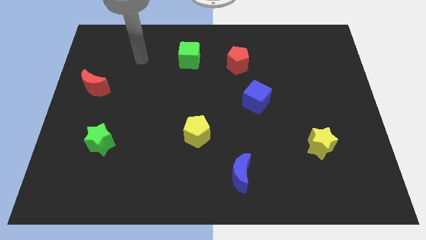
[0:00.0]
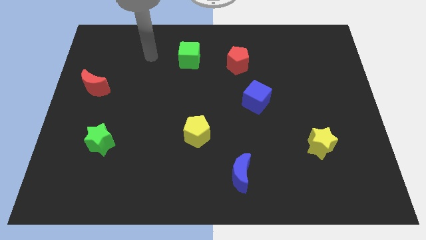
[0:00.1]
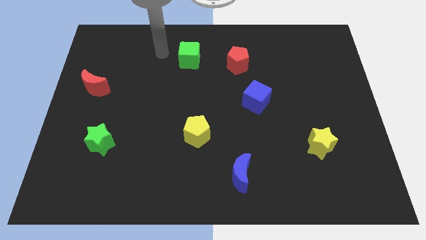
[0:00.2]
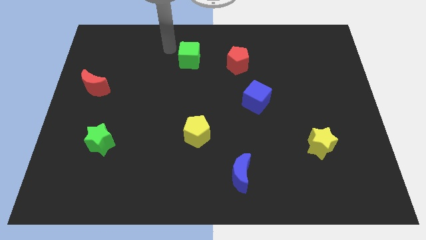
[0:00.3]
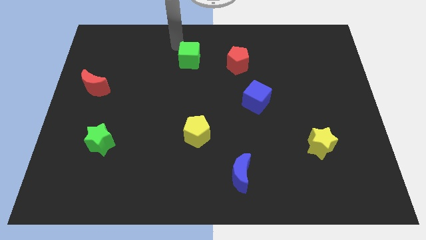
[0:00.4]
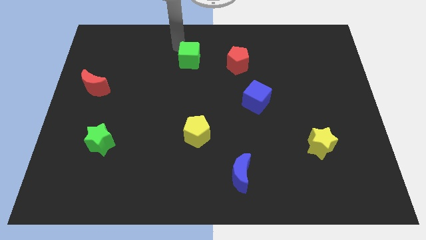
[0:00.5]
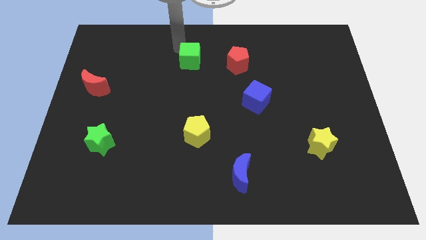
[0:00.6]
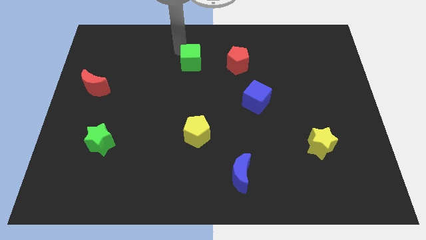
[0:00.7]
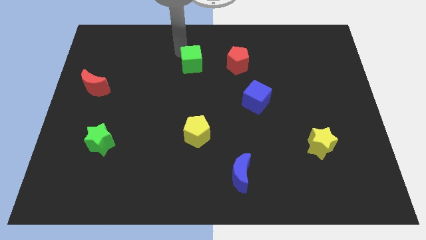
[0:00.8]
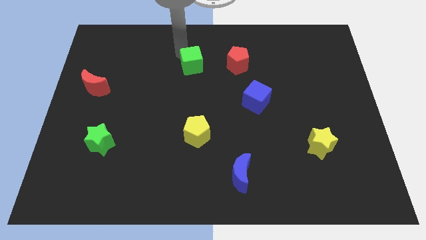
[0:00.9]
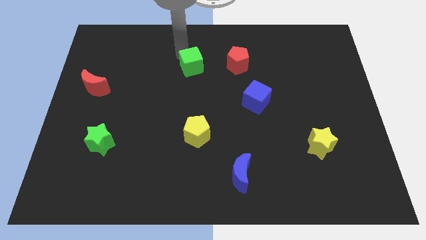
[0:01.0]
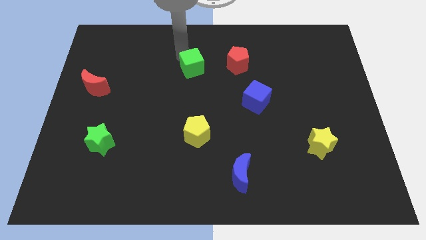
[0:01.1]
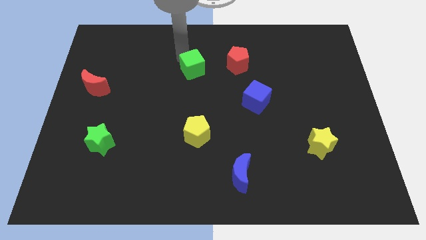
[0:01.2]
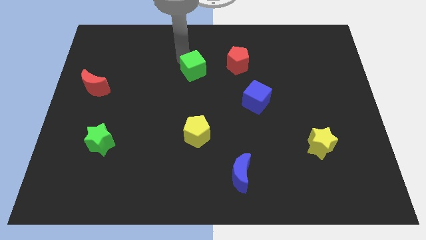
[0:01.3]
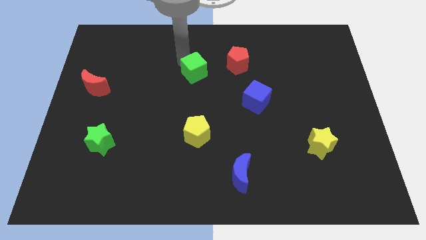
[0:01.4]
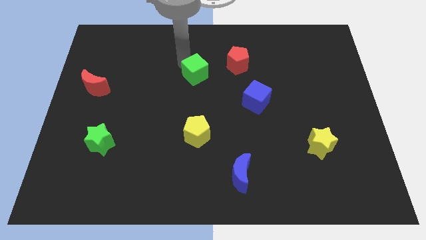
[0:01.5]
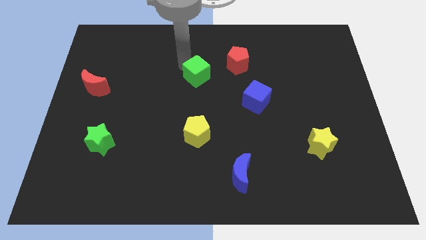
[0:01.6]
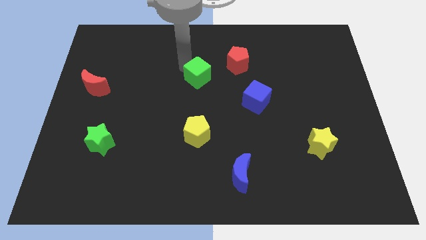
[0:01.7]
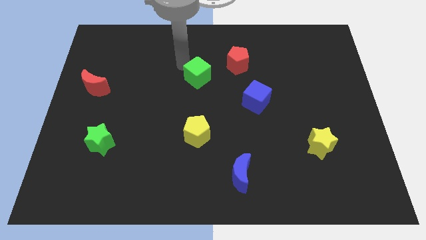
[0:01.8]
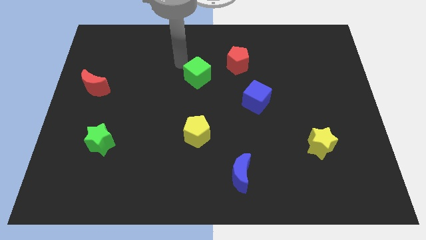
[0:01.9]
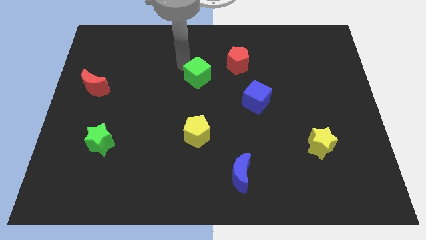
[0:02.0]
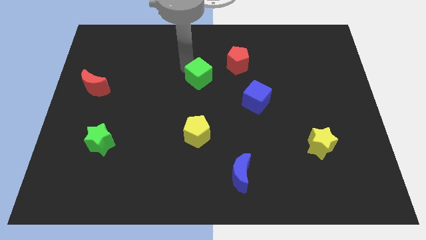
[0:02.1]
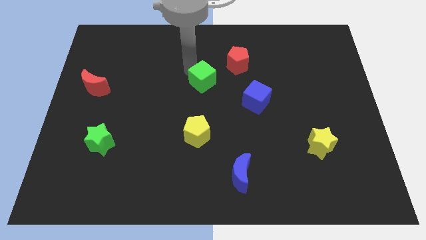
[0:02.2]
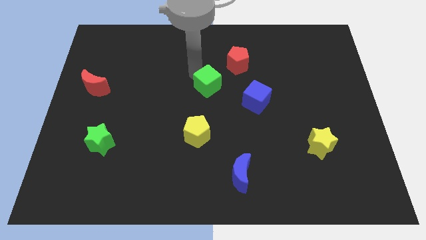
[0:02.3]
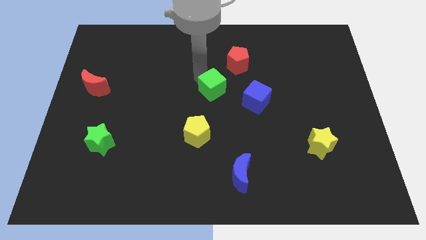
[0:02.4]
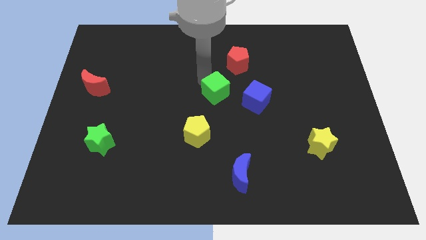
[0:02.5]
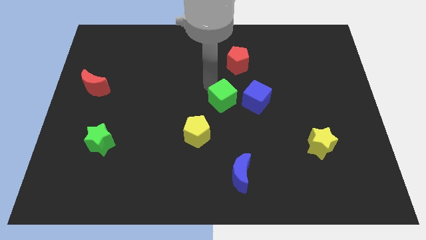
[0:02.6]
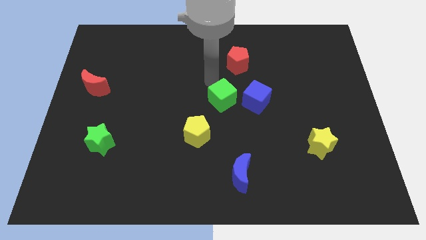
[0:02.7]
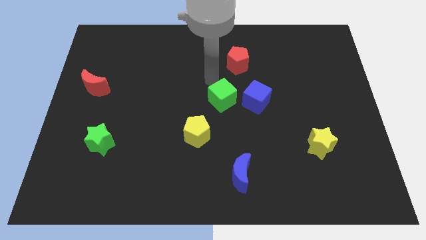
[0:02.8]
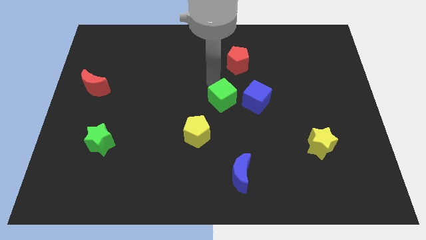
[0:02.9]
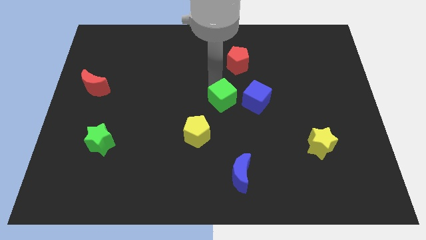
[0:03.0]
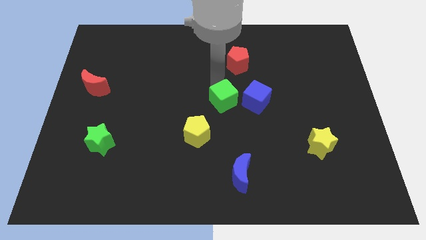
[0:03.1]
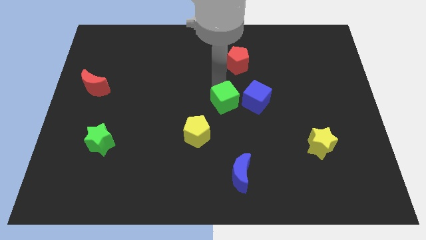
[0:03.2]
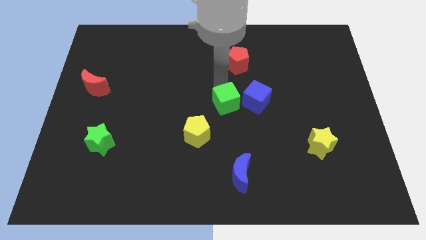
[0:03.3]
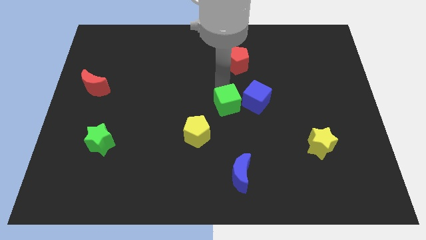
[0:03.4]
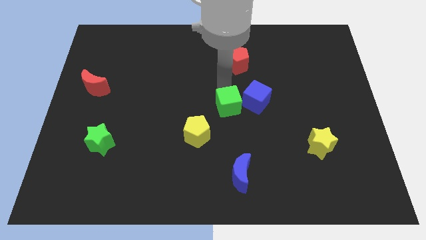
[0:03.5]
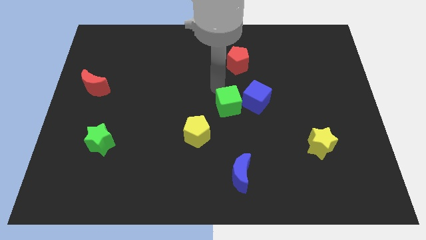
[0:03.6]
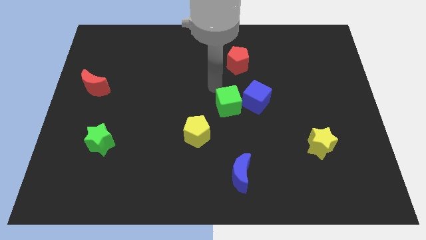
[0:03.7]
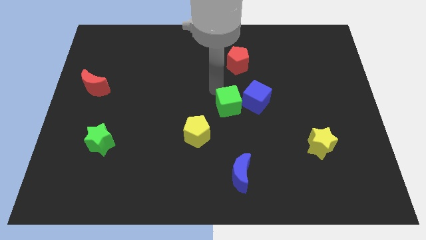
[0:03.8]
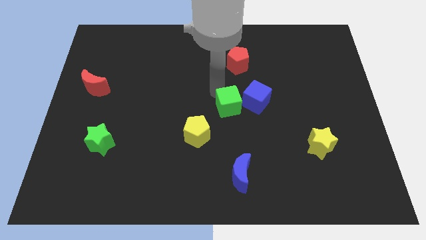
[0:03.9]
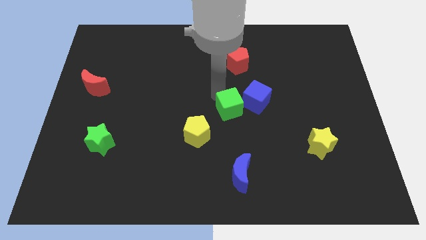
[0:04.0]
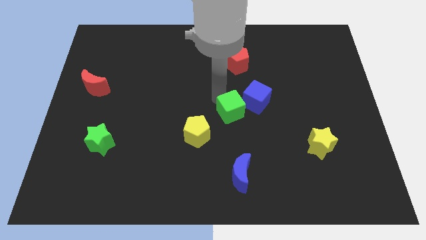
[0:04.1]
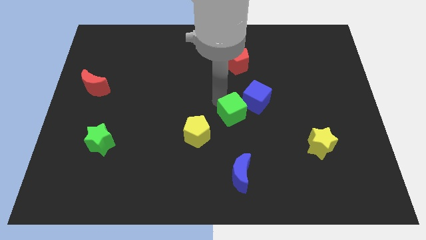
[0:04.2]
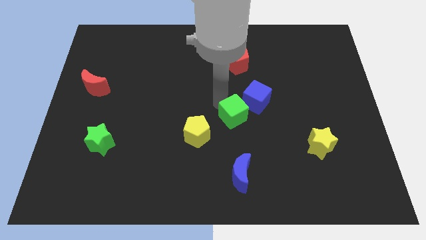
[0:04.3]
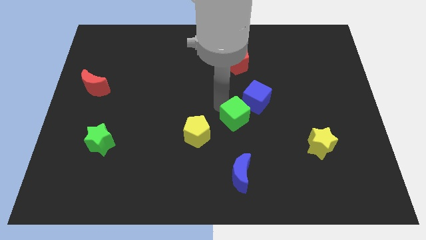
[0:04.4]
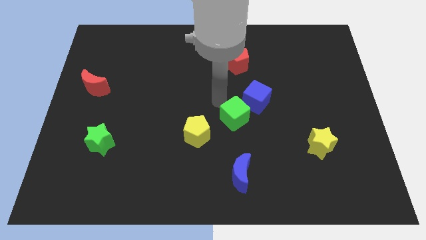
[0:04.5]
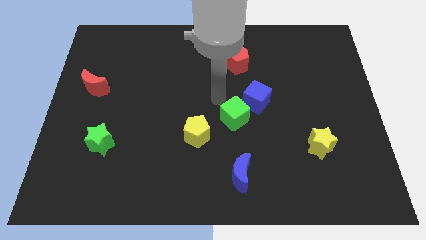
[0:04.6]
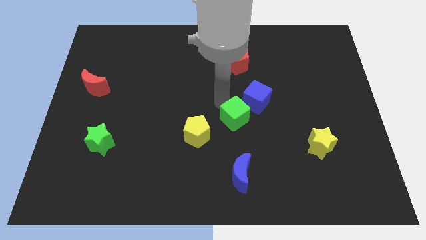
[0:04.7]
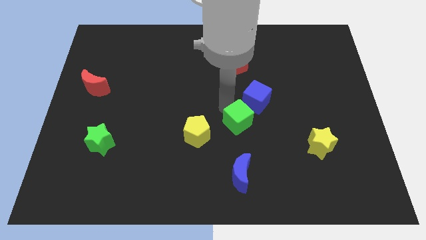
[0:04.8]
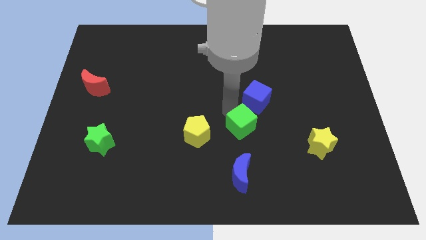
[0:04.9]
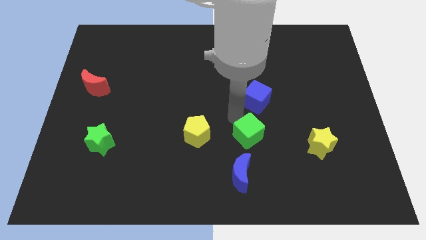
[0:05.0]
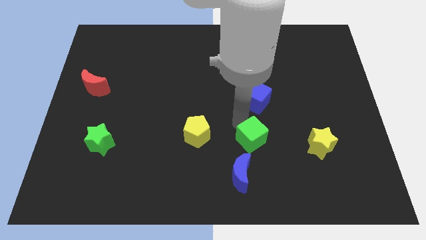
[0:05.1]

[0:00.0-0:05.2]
put the green cube diagonally up and to the right of the blue moon

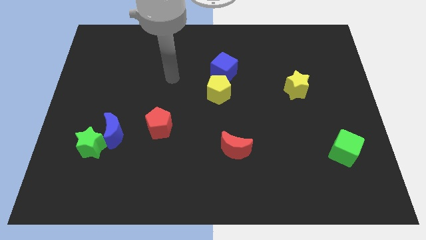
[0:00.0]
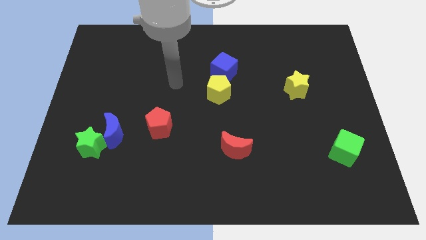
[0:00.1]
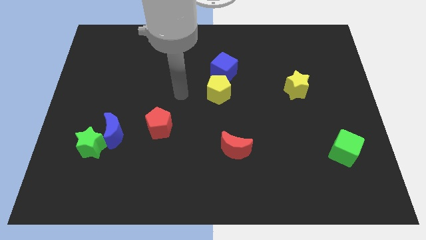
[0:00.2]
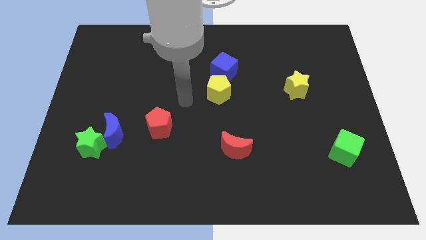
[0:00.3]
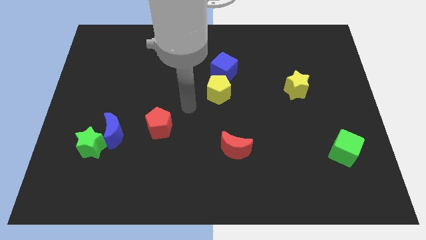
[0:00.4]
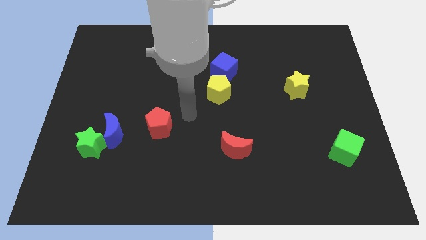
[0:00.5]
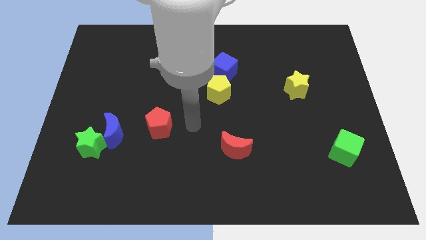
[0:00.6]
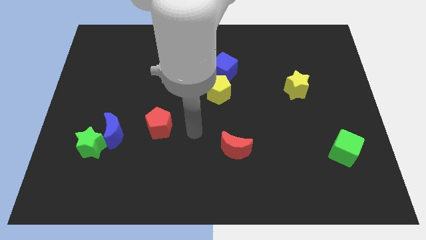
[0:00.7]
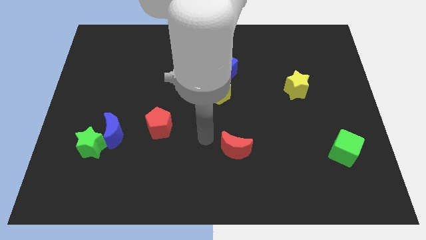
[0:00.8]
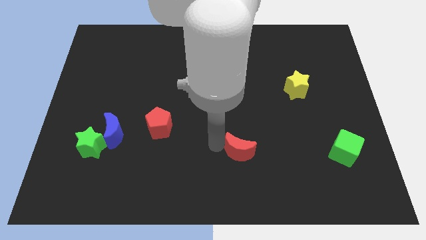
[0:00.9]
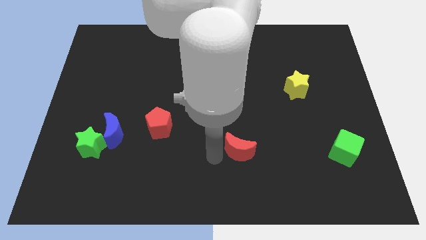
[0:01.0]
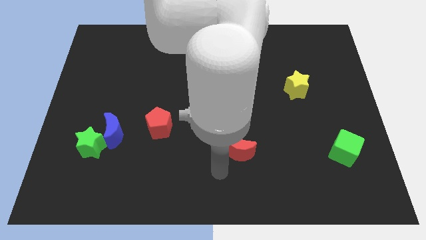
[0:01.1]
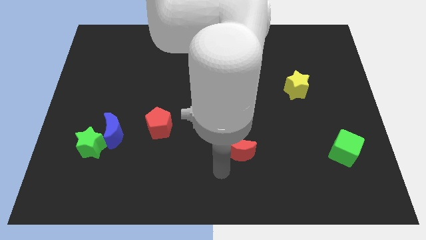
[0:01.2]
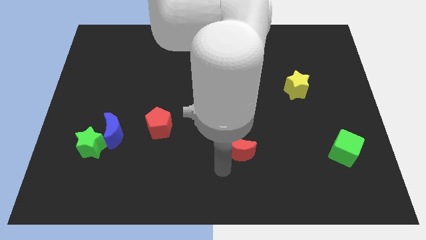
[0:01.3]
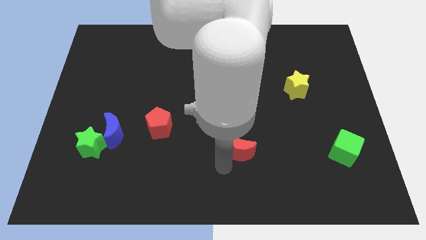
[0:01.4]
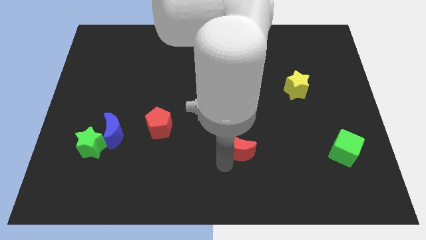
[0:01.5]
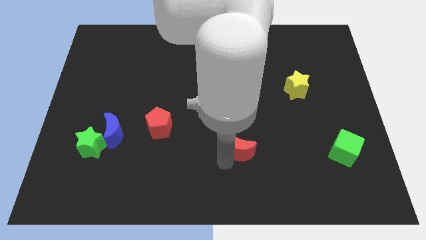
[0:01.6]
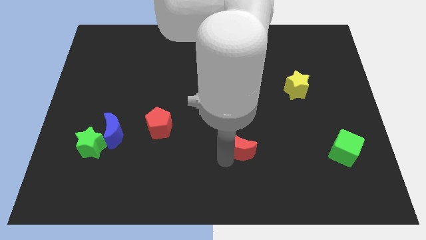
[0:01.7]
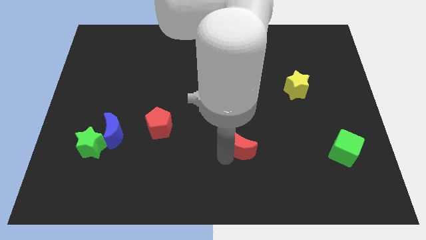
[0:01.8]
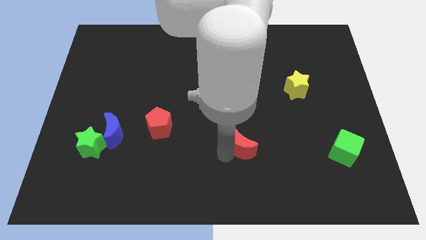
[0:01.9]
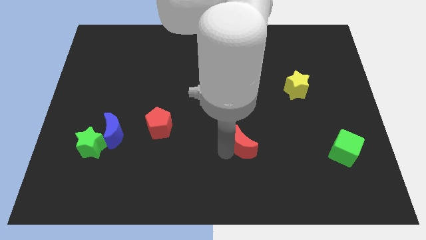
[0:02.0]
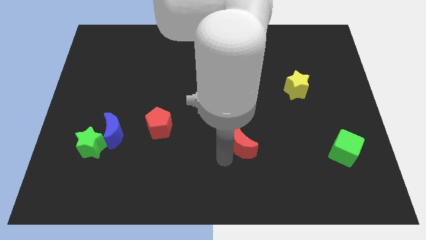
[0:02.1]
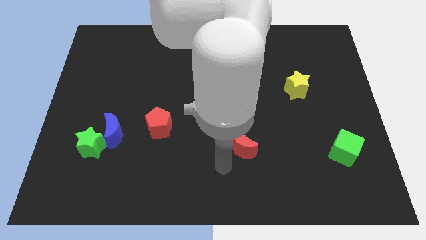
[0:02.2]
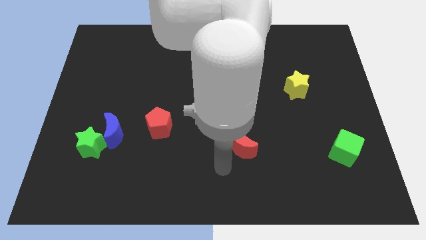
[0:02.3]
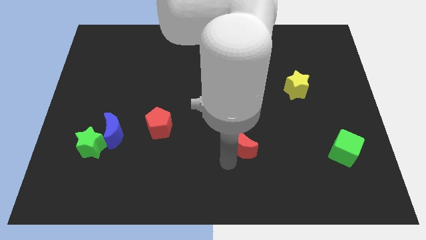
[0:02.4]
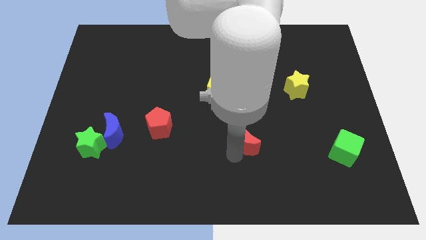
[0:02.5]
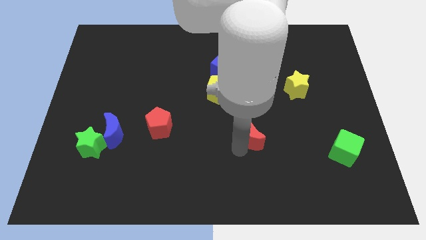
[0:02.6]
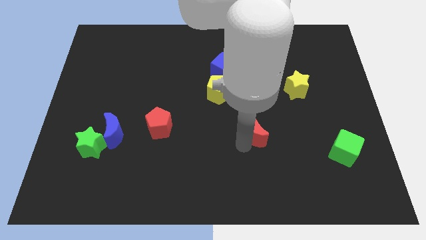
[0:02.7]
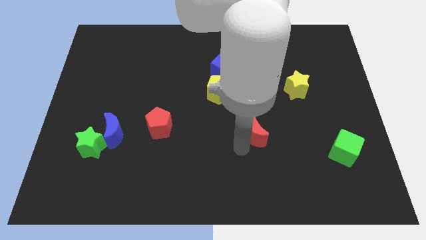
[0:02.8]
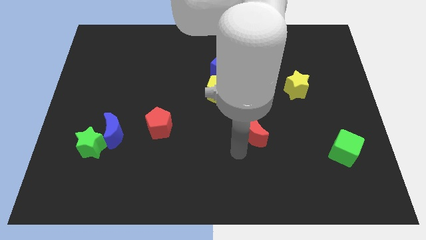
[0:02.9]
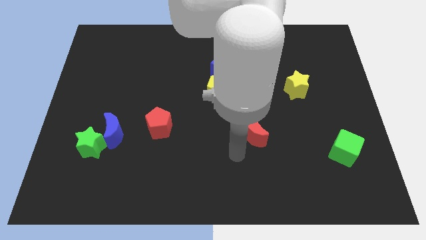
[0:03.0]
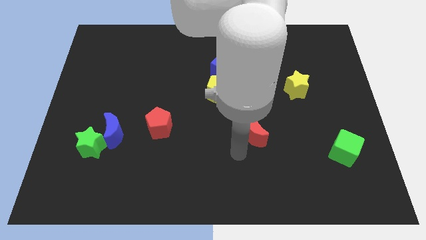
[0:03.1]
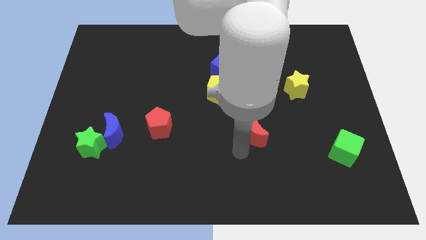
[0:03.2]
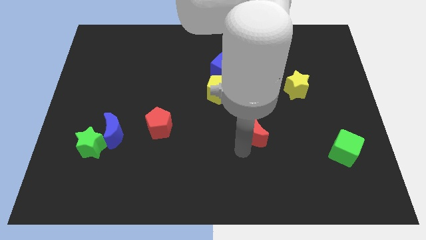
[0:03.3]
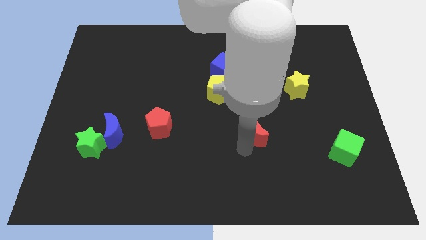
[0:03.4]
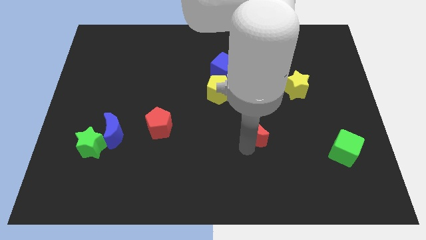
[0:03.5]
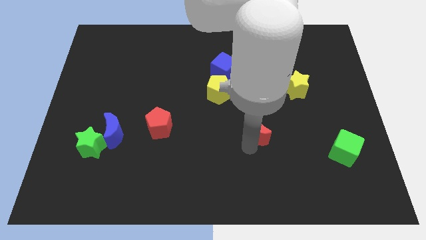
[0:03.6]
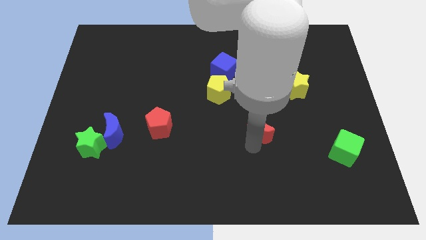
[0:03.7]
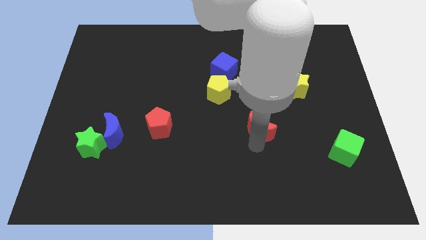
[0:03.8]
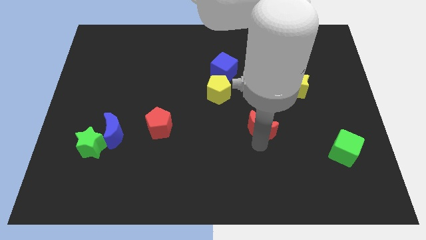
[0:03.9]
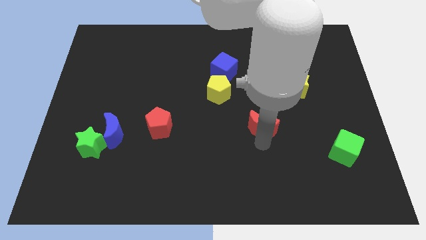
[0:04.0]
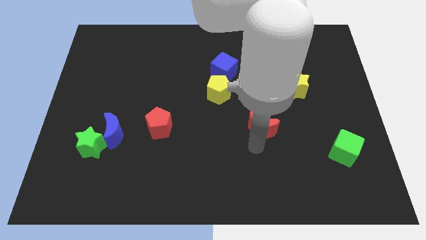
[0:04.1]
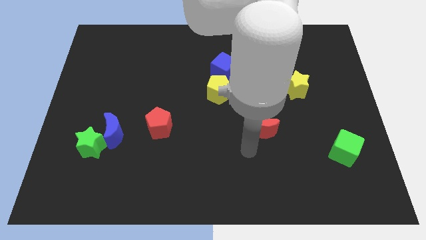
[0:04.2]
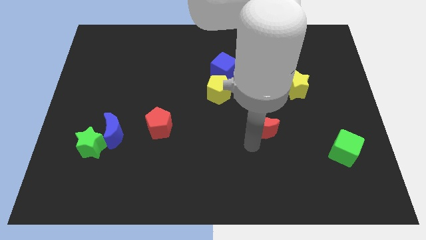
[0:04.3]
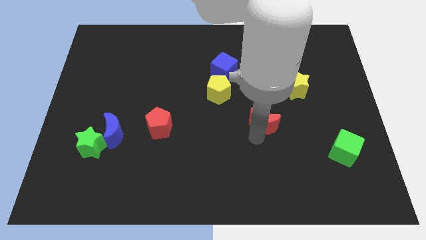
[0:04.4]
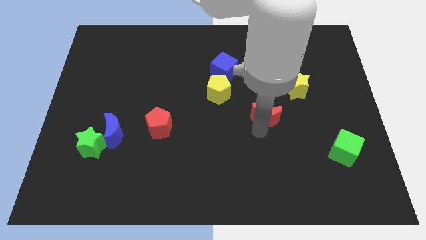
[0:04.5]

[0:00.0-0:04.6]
move the red moon diagonally down and to the left of the yellow star
